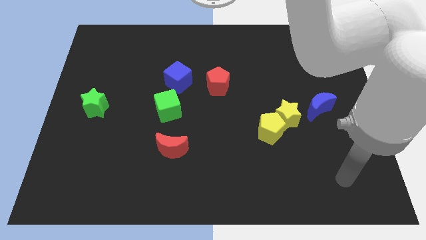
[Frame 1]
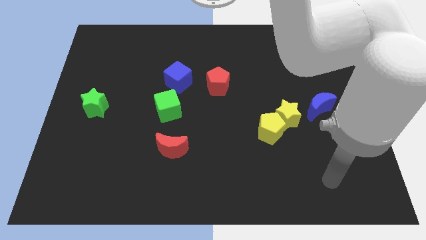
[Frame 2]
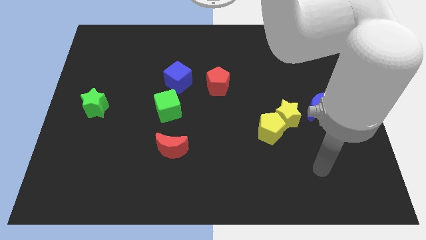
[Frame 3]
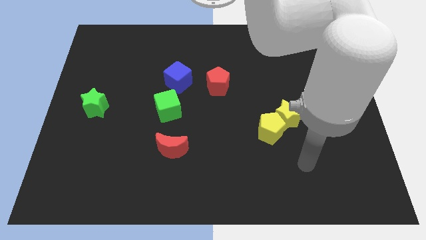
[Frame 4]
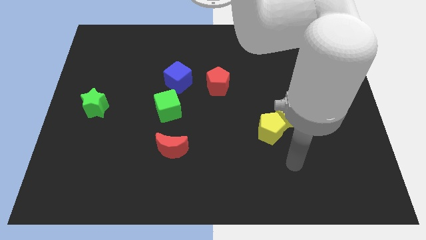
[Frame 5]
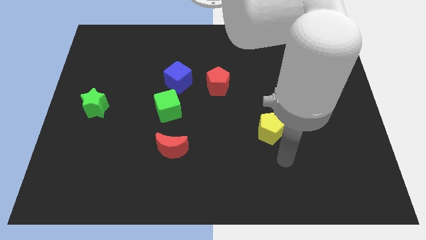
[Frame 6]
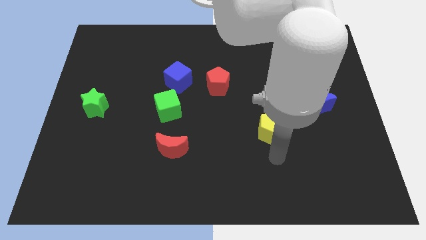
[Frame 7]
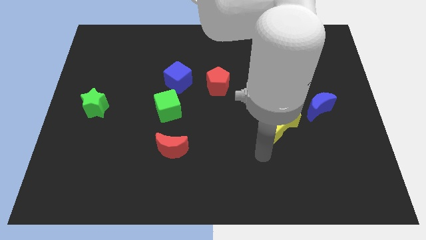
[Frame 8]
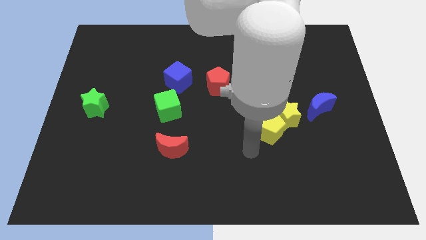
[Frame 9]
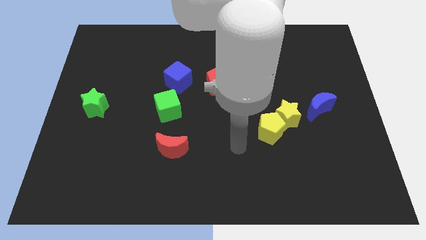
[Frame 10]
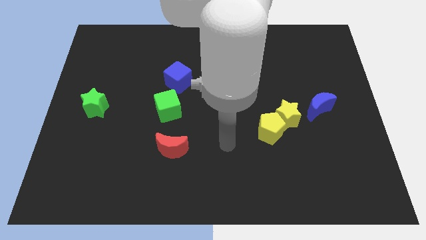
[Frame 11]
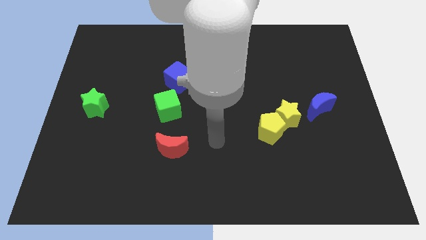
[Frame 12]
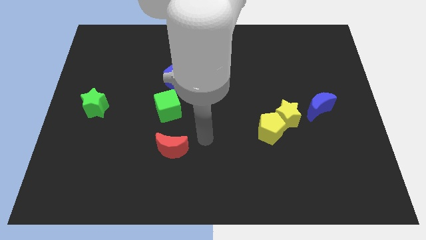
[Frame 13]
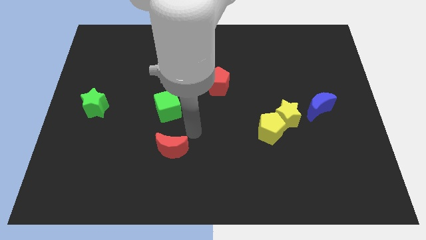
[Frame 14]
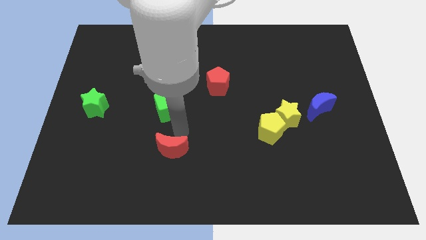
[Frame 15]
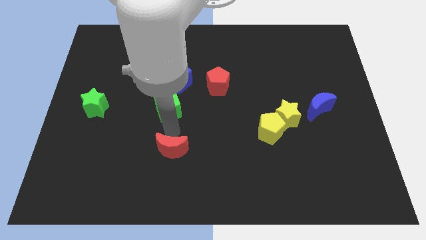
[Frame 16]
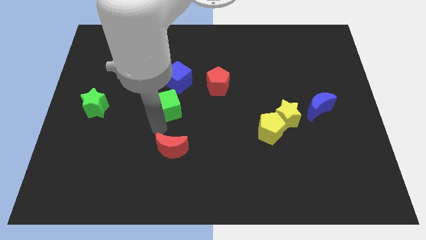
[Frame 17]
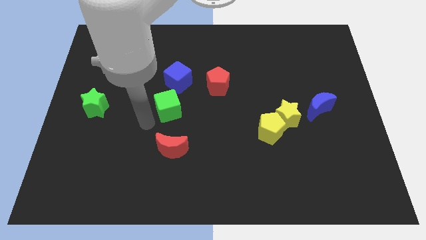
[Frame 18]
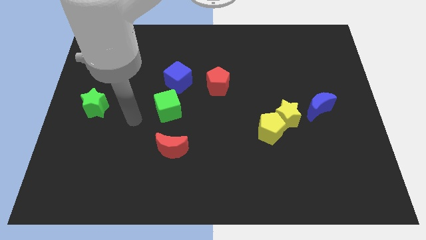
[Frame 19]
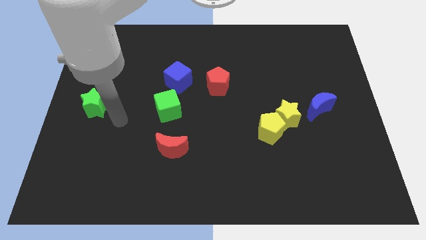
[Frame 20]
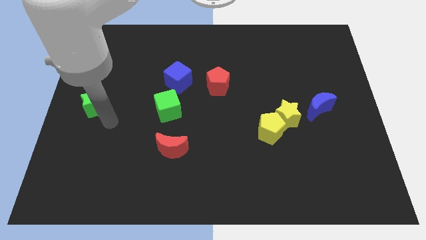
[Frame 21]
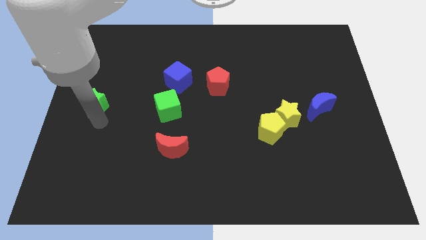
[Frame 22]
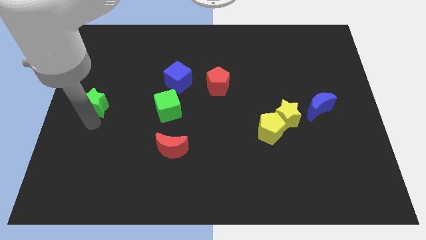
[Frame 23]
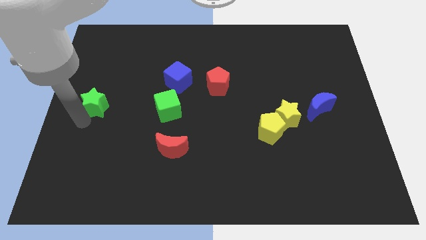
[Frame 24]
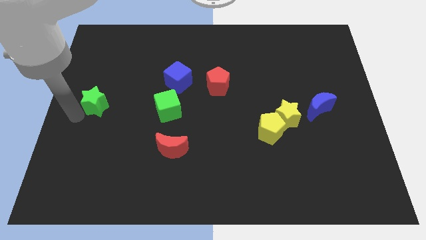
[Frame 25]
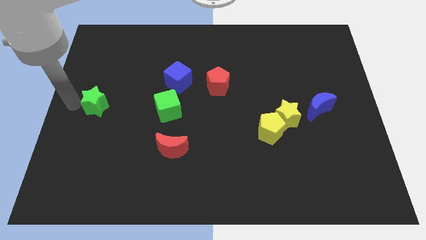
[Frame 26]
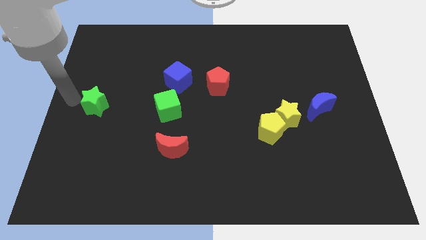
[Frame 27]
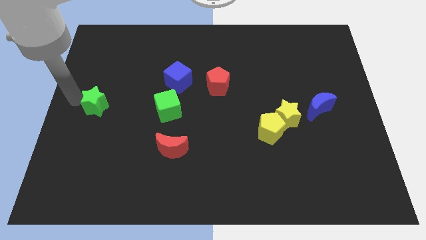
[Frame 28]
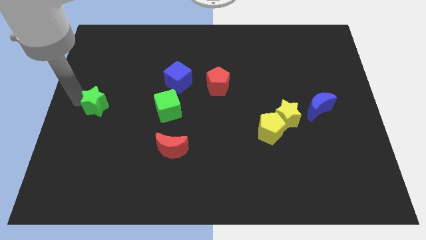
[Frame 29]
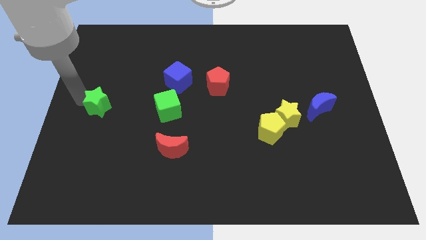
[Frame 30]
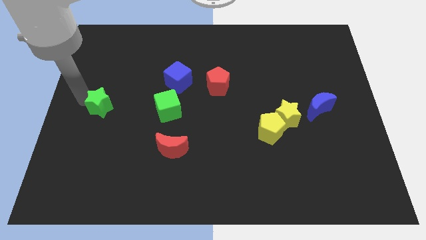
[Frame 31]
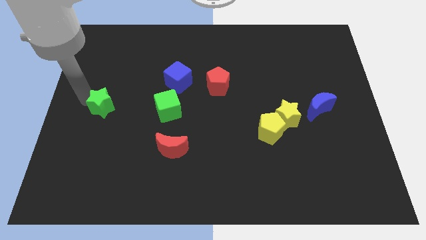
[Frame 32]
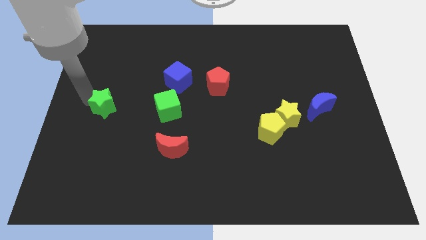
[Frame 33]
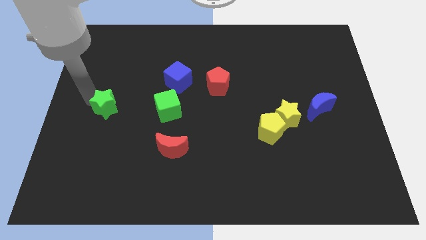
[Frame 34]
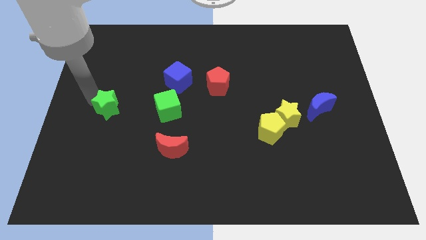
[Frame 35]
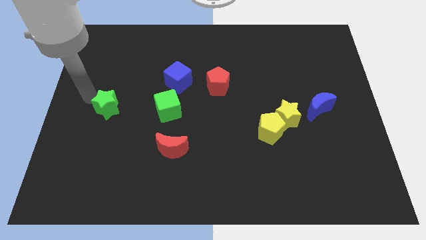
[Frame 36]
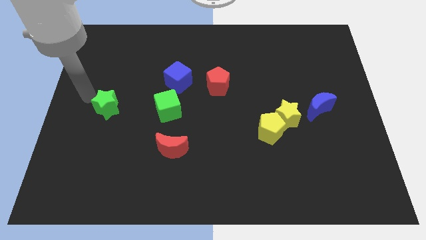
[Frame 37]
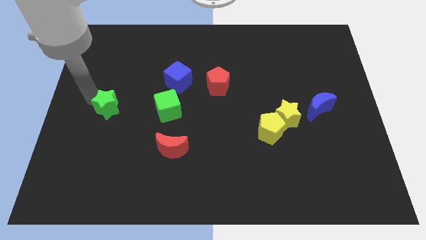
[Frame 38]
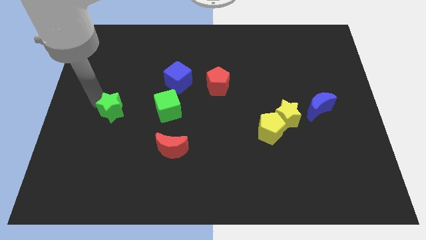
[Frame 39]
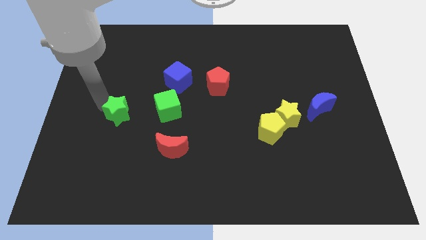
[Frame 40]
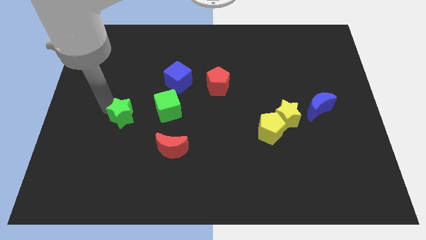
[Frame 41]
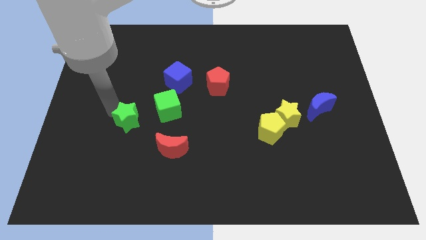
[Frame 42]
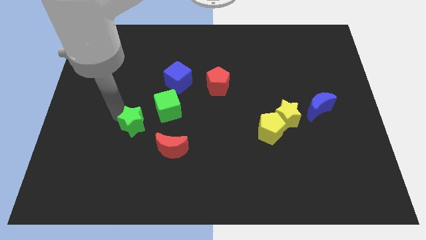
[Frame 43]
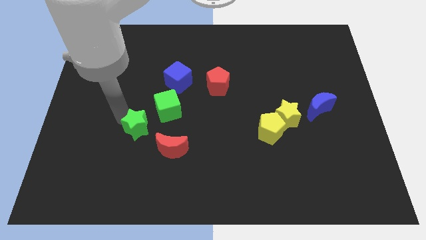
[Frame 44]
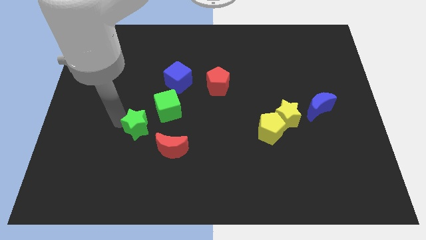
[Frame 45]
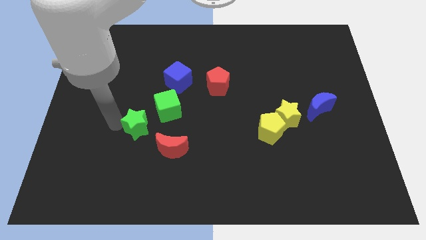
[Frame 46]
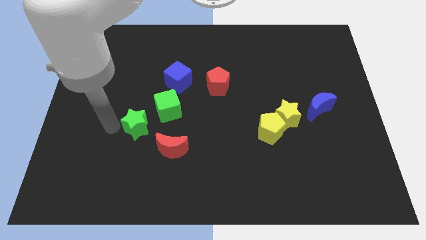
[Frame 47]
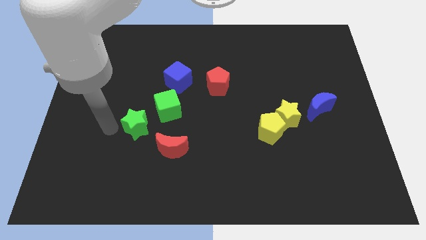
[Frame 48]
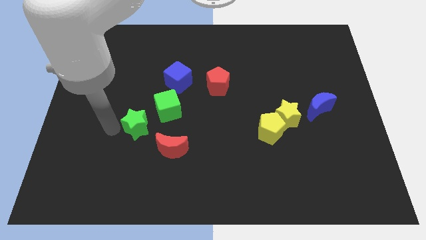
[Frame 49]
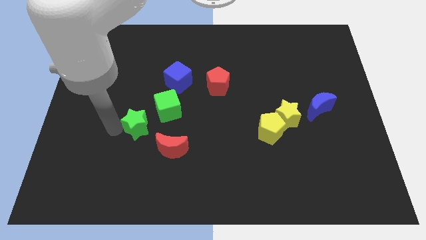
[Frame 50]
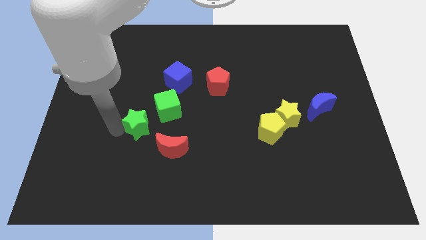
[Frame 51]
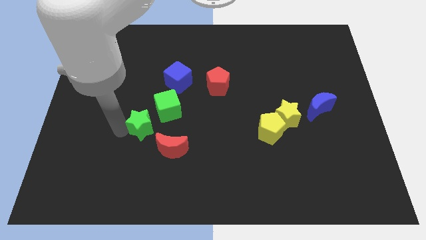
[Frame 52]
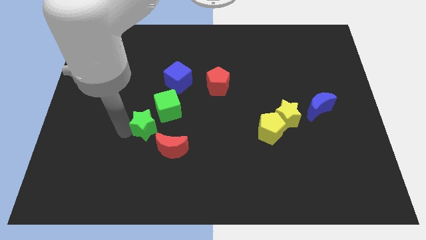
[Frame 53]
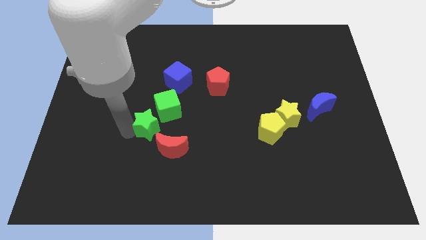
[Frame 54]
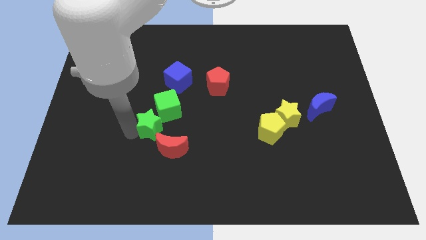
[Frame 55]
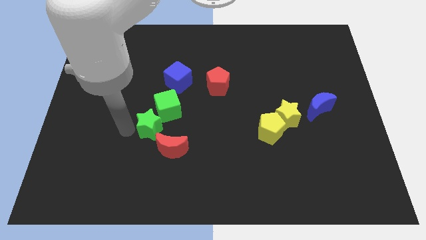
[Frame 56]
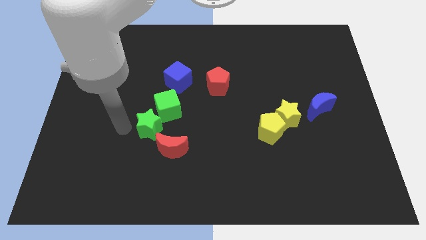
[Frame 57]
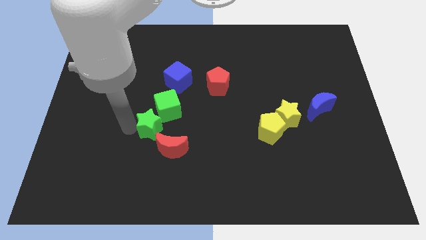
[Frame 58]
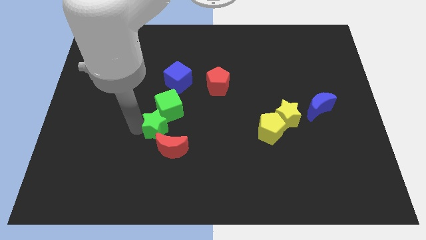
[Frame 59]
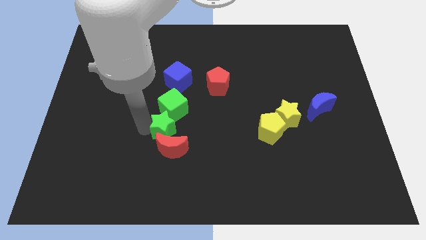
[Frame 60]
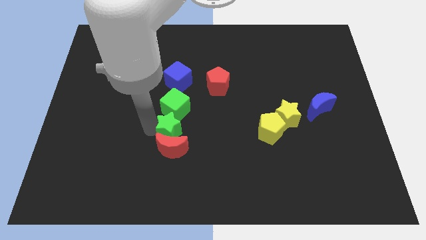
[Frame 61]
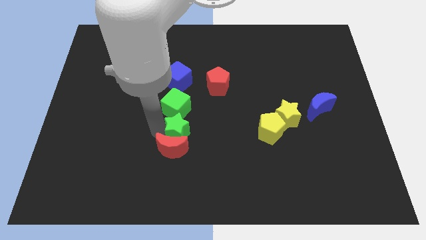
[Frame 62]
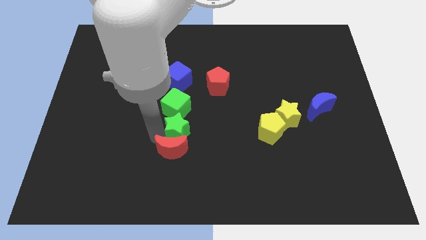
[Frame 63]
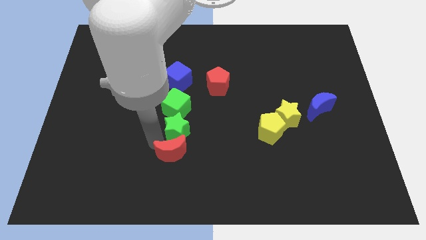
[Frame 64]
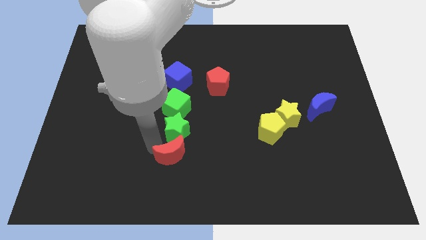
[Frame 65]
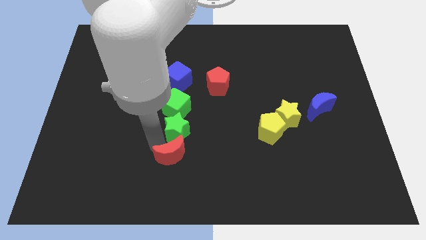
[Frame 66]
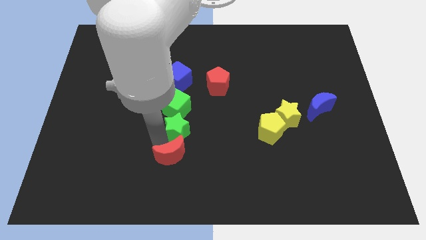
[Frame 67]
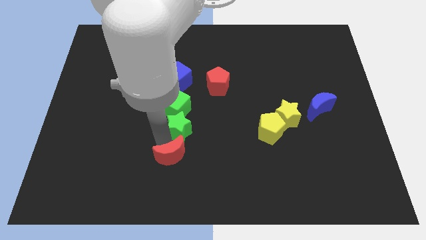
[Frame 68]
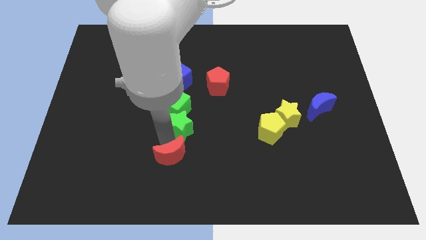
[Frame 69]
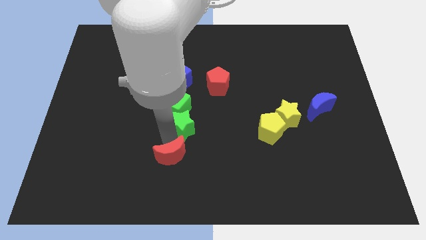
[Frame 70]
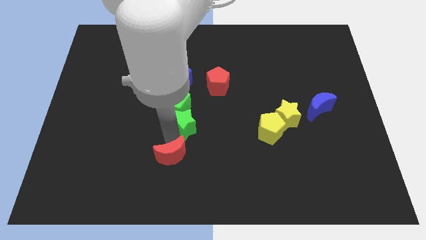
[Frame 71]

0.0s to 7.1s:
move the green star to the right

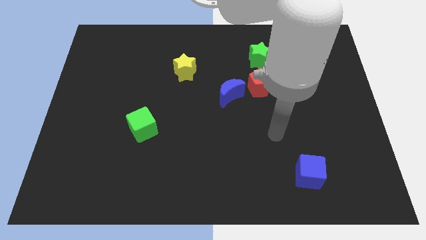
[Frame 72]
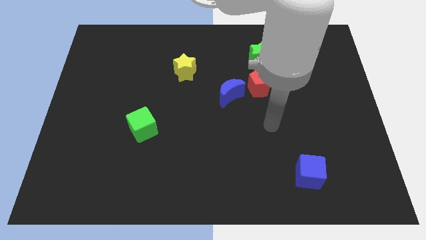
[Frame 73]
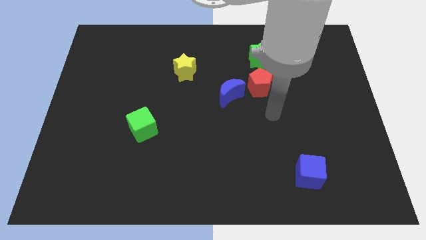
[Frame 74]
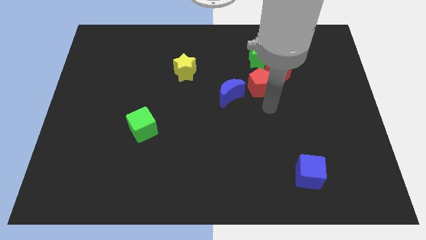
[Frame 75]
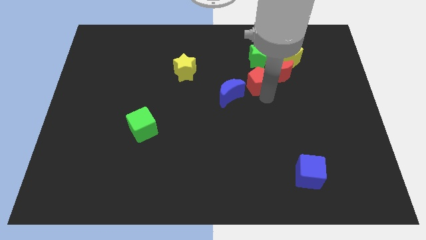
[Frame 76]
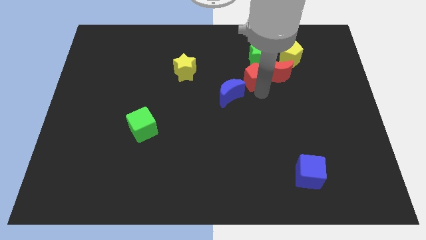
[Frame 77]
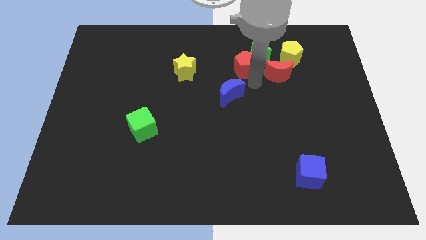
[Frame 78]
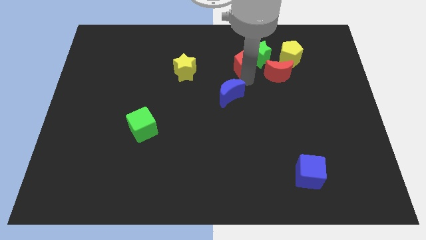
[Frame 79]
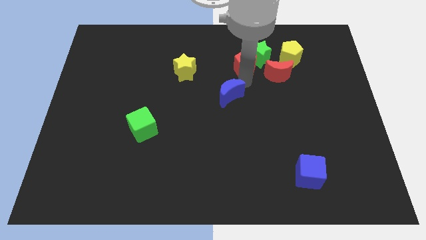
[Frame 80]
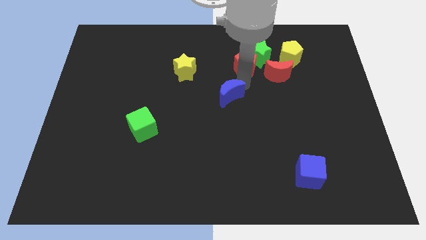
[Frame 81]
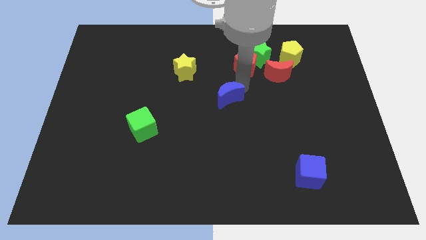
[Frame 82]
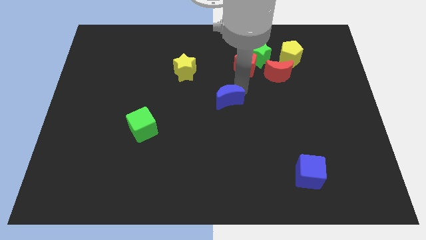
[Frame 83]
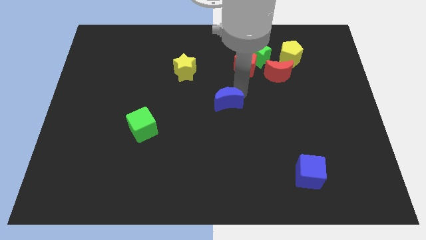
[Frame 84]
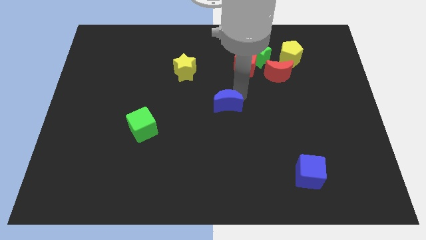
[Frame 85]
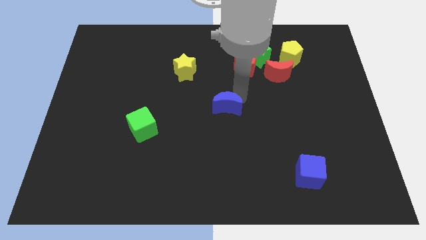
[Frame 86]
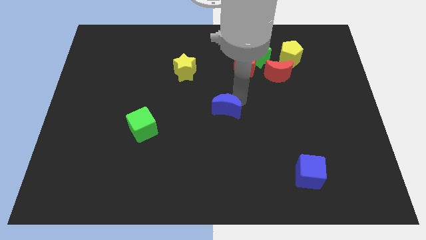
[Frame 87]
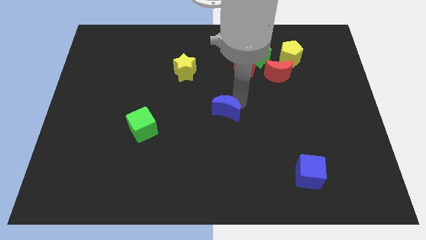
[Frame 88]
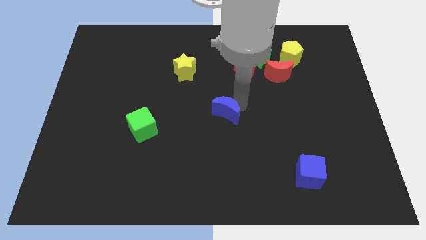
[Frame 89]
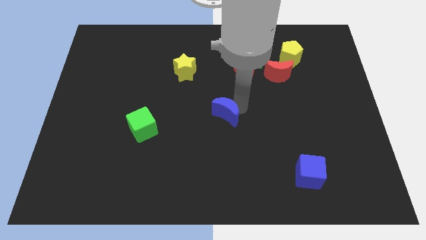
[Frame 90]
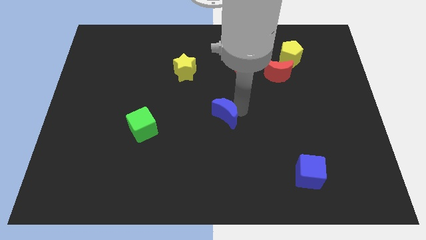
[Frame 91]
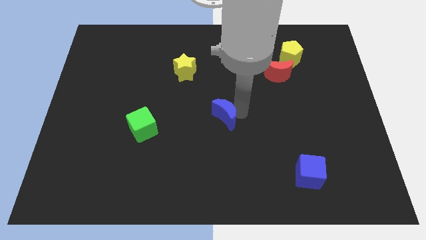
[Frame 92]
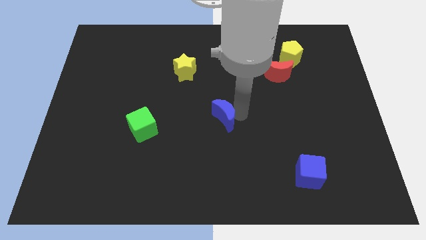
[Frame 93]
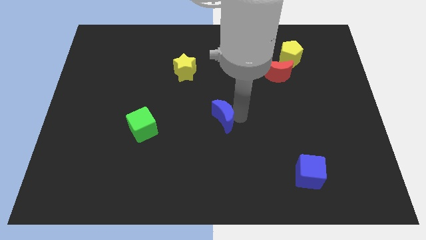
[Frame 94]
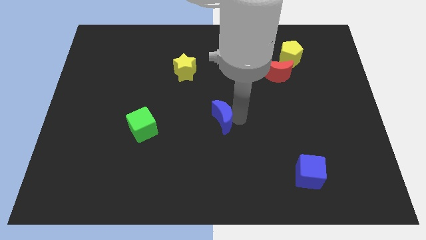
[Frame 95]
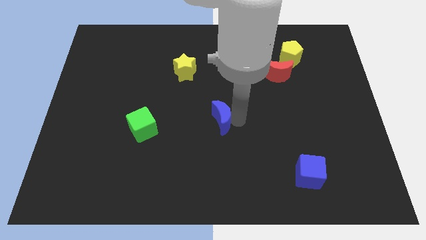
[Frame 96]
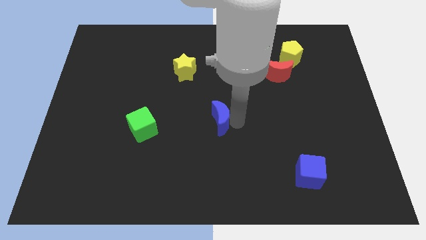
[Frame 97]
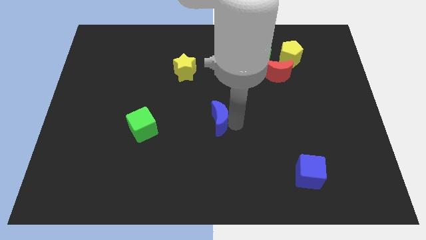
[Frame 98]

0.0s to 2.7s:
move the blue moon a little bit downwards and to the left diagonally
